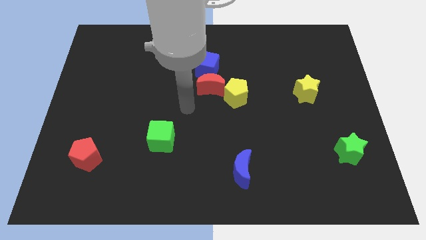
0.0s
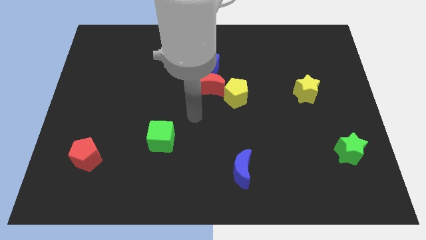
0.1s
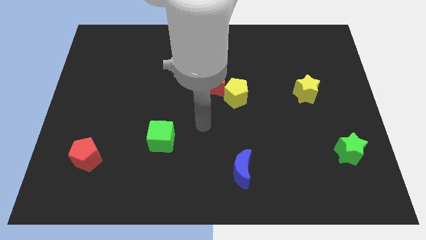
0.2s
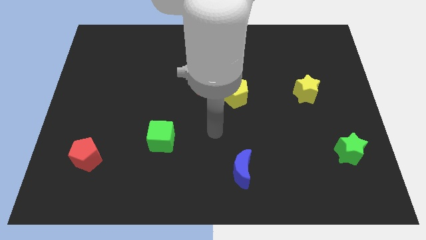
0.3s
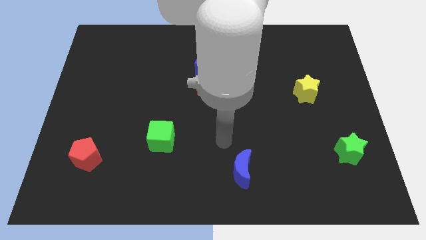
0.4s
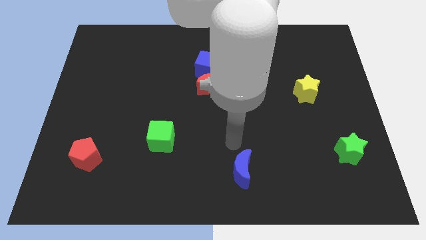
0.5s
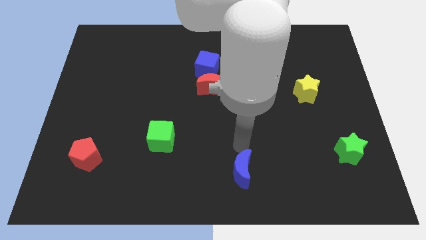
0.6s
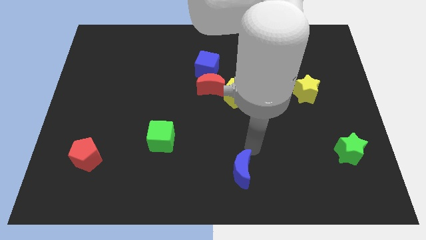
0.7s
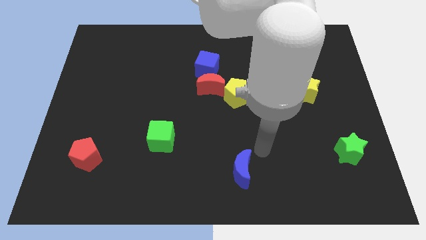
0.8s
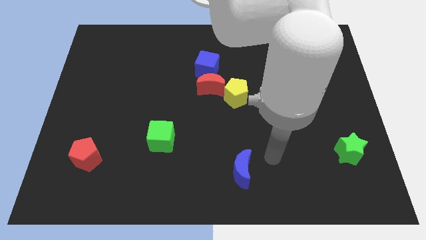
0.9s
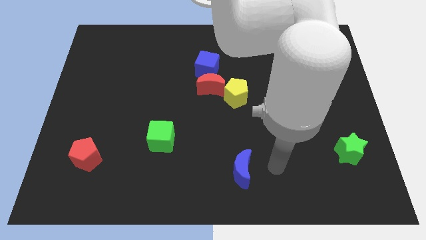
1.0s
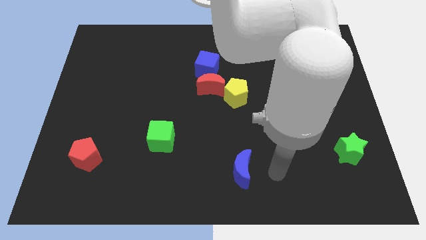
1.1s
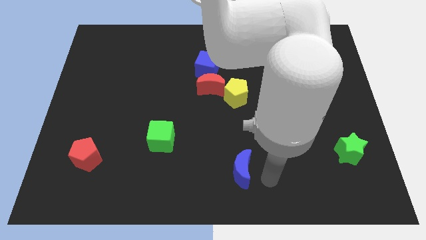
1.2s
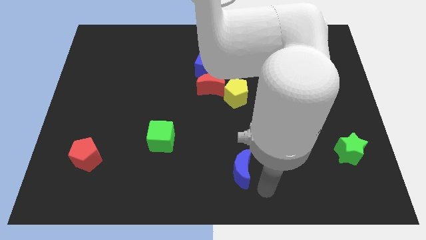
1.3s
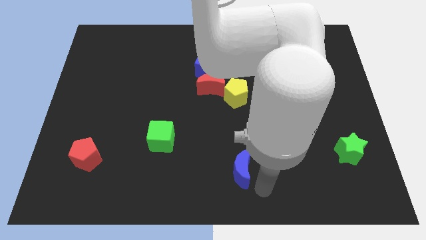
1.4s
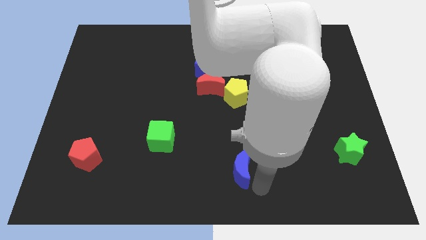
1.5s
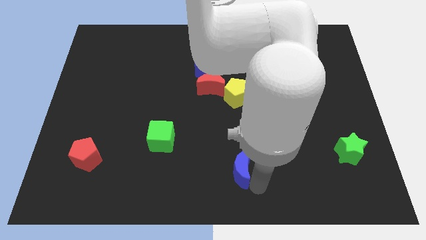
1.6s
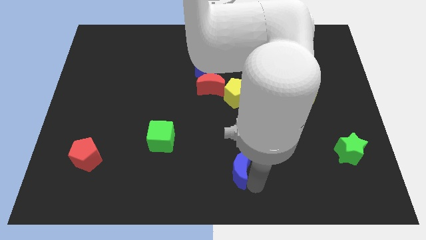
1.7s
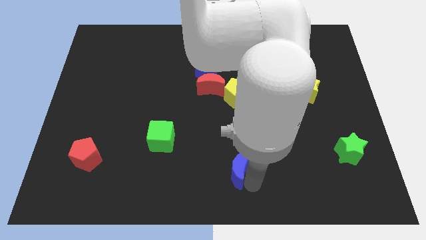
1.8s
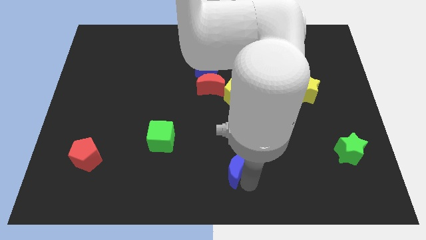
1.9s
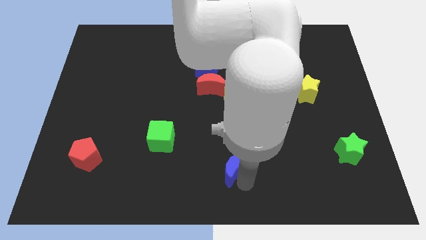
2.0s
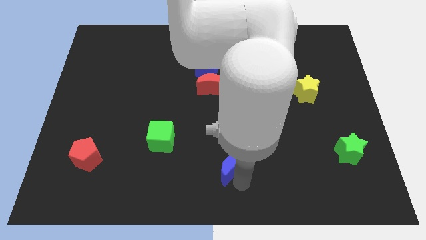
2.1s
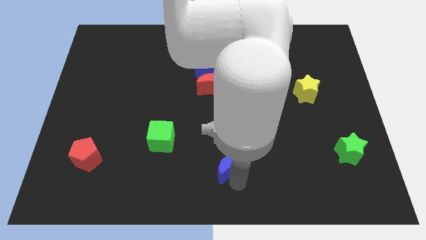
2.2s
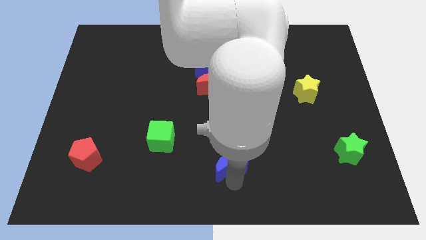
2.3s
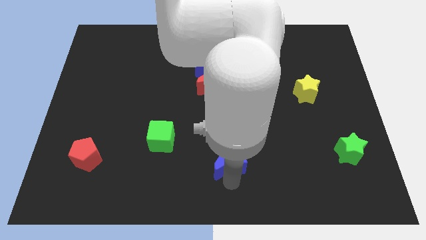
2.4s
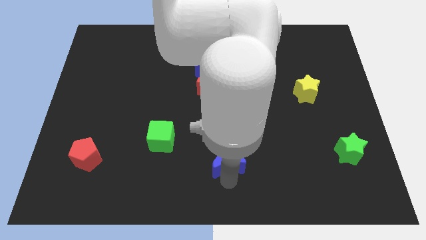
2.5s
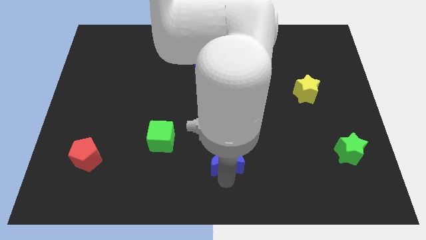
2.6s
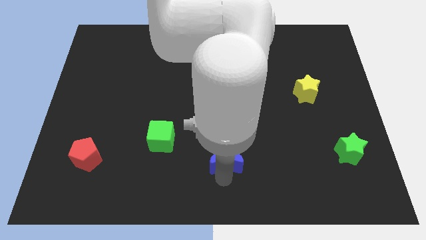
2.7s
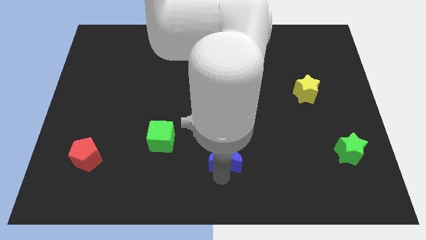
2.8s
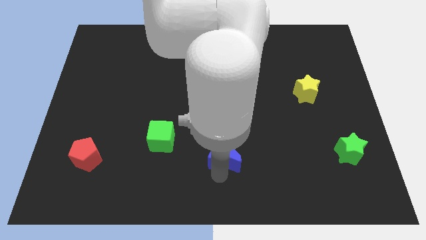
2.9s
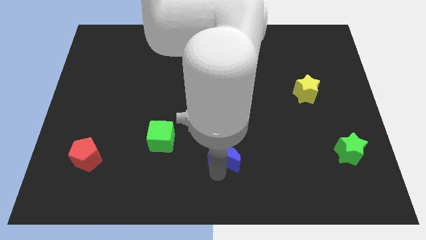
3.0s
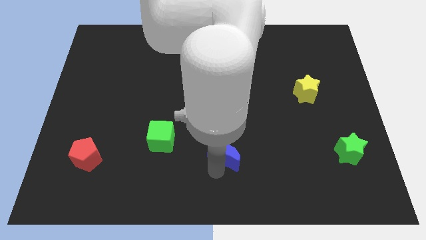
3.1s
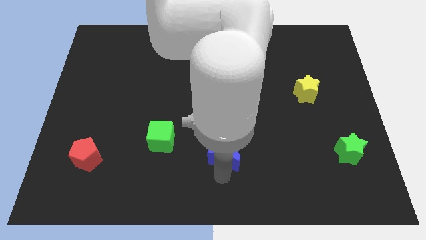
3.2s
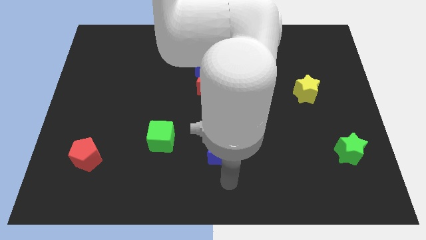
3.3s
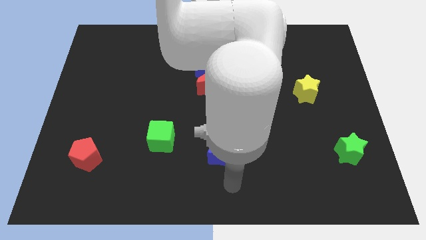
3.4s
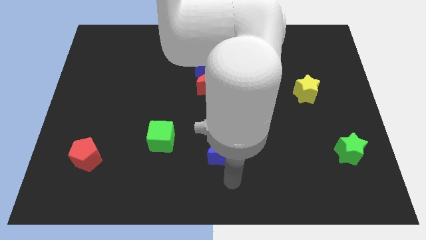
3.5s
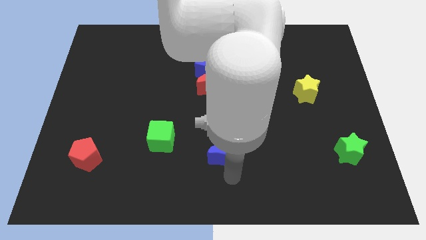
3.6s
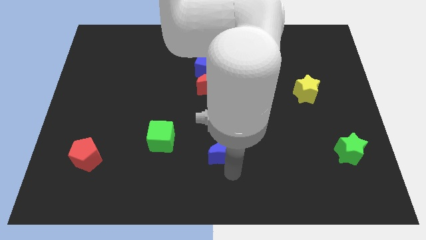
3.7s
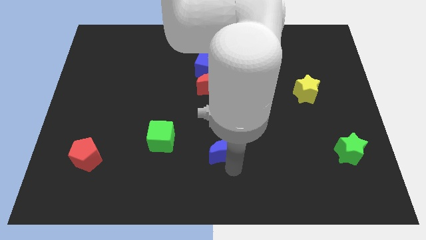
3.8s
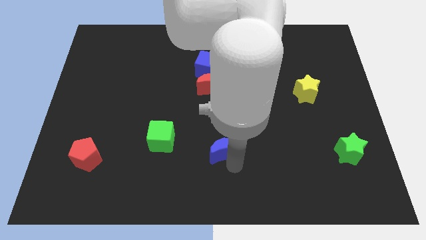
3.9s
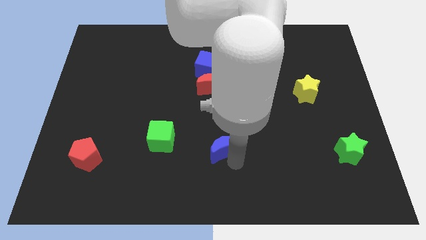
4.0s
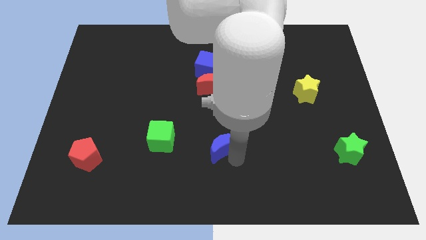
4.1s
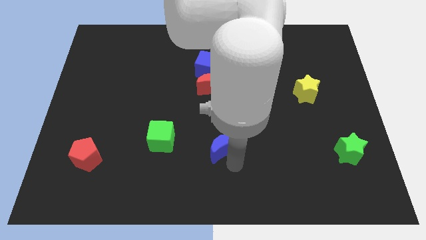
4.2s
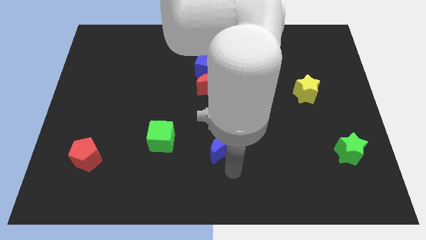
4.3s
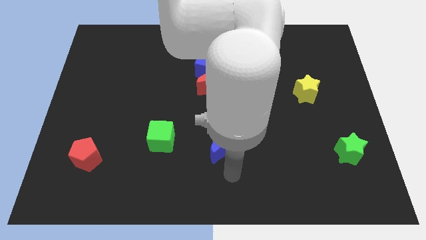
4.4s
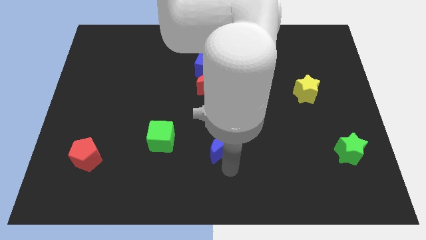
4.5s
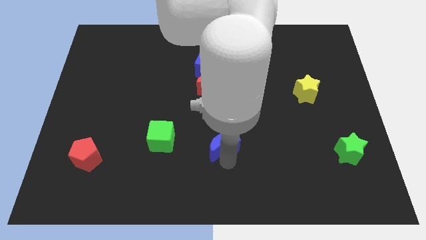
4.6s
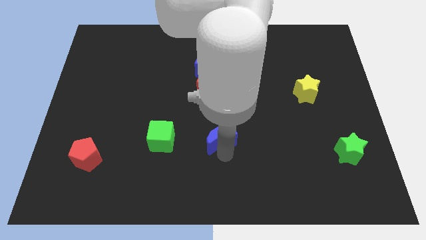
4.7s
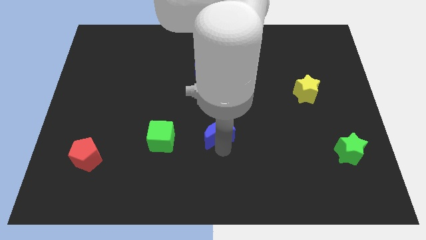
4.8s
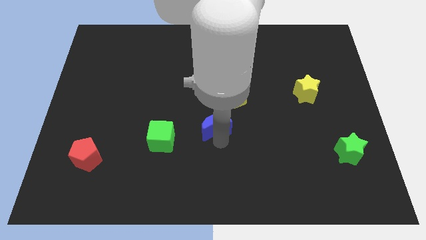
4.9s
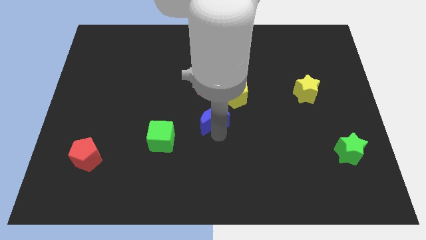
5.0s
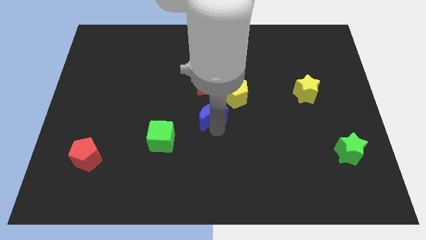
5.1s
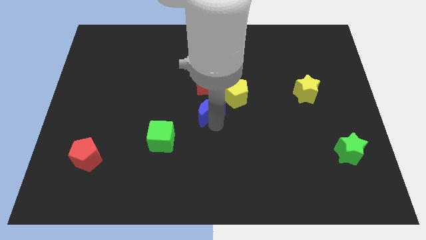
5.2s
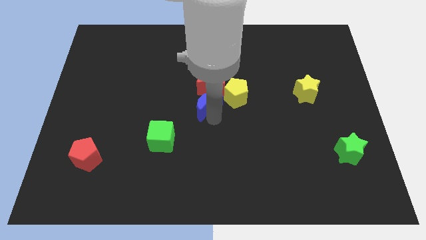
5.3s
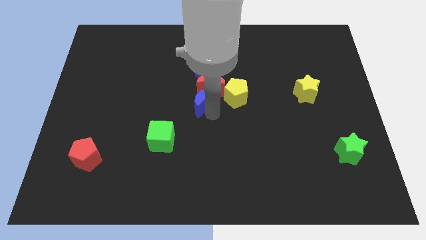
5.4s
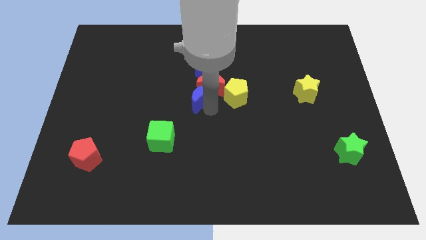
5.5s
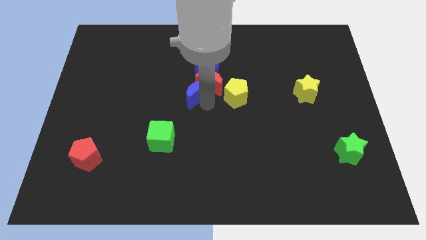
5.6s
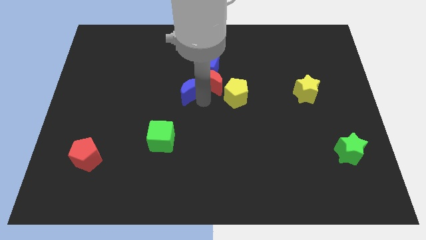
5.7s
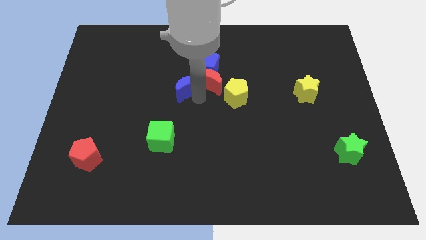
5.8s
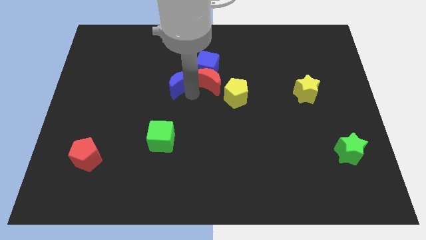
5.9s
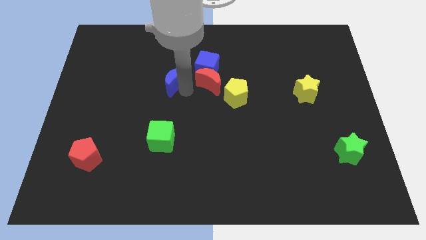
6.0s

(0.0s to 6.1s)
put the blue moon to the left of the blue cube
